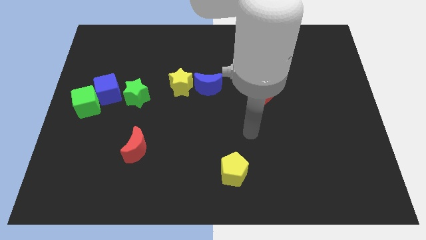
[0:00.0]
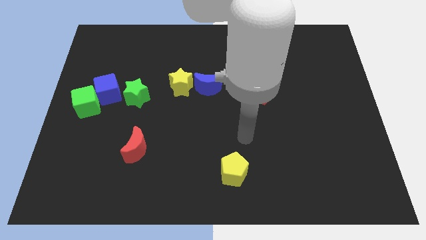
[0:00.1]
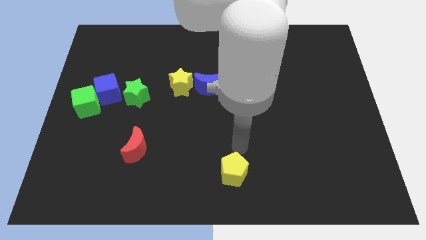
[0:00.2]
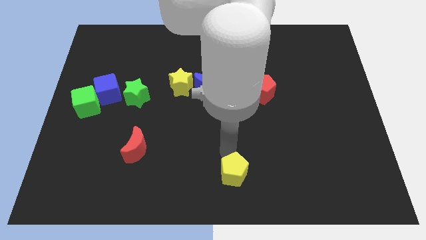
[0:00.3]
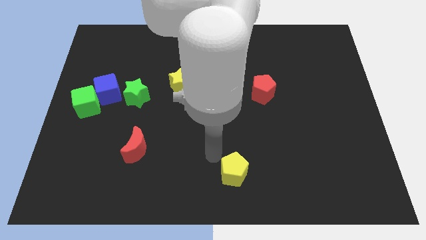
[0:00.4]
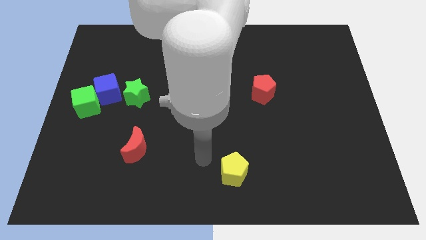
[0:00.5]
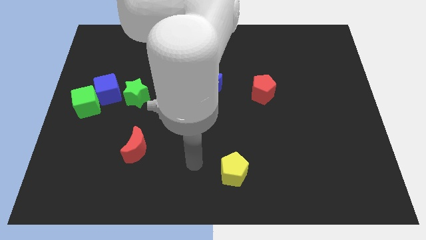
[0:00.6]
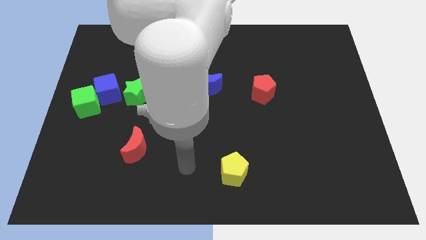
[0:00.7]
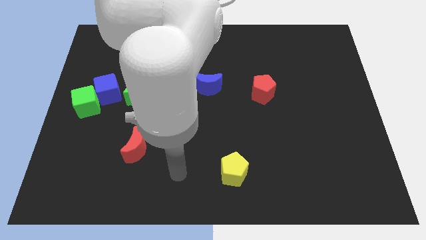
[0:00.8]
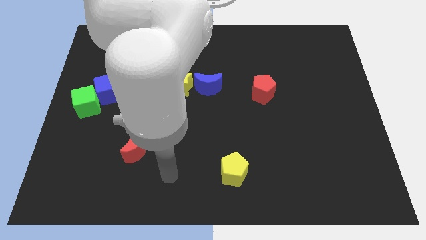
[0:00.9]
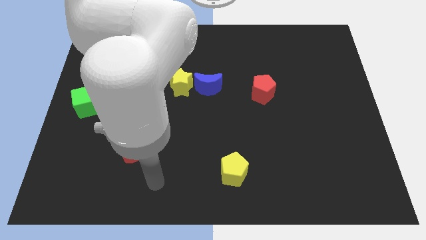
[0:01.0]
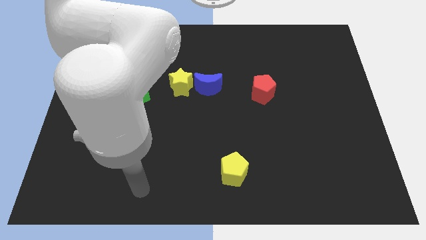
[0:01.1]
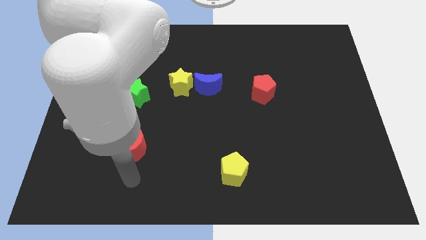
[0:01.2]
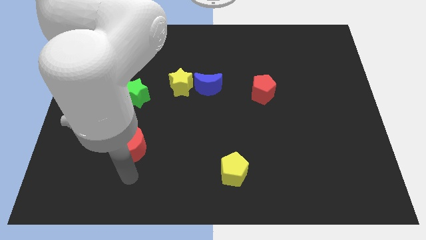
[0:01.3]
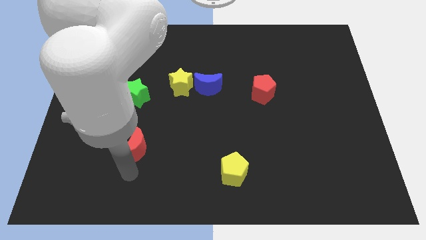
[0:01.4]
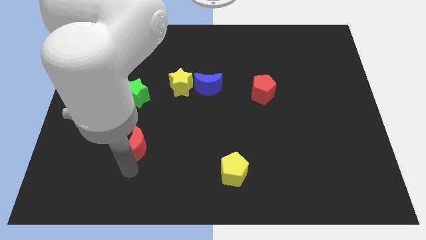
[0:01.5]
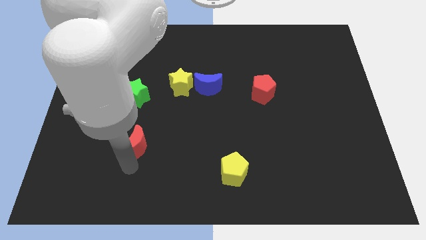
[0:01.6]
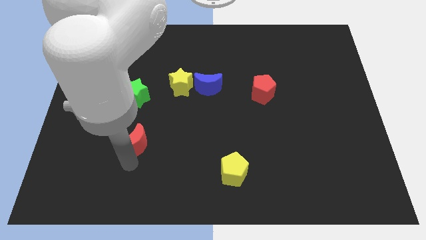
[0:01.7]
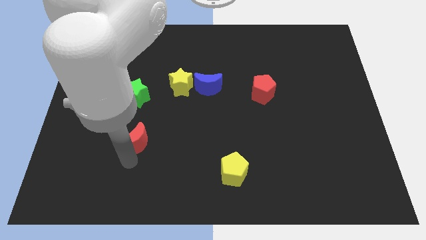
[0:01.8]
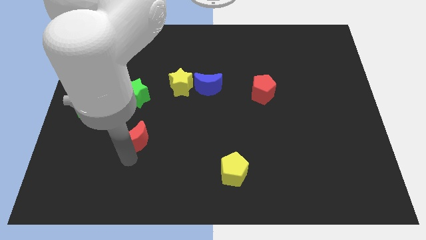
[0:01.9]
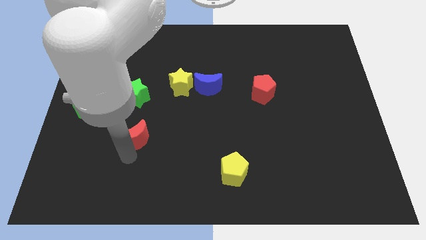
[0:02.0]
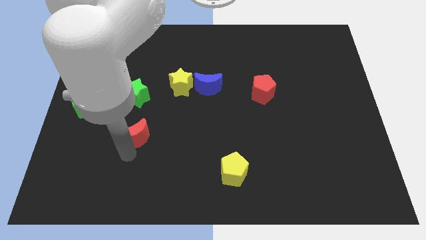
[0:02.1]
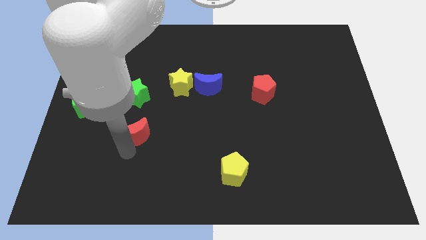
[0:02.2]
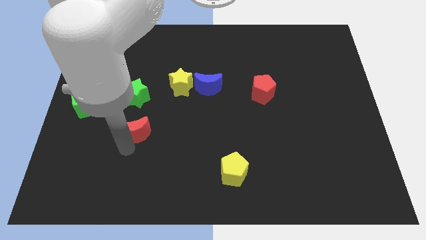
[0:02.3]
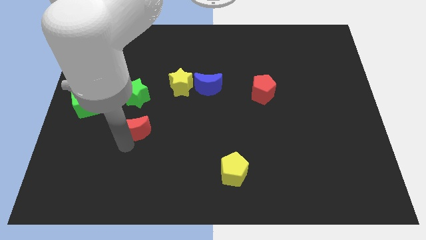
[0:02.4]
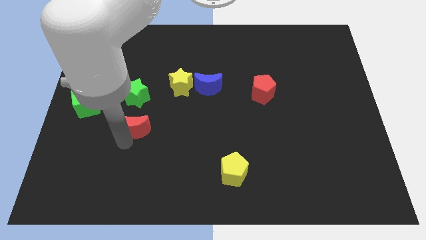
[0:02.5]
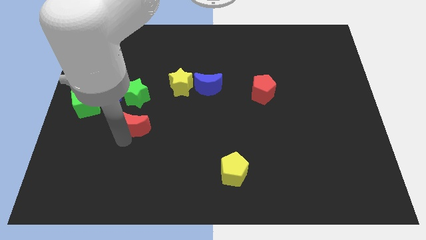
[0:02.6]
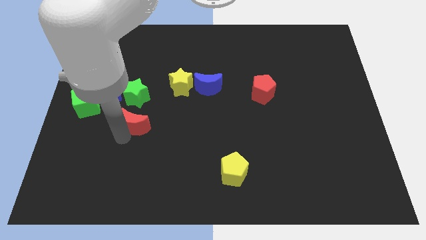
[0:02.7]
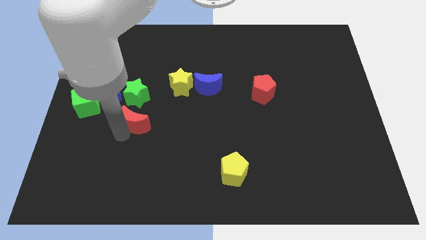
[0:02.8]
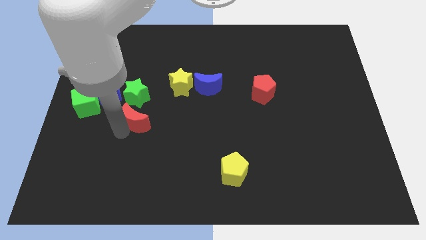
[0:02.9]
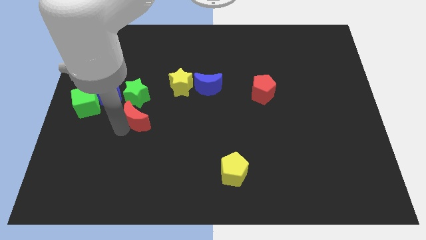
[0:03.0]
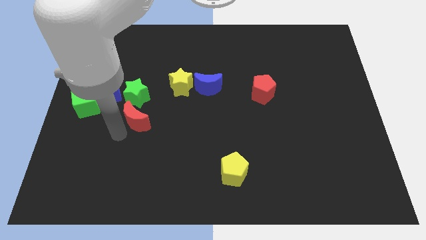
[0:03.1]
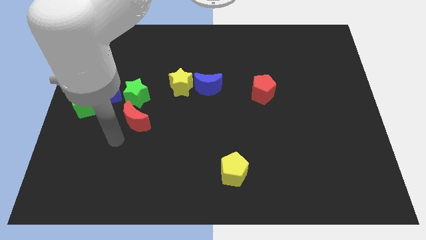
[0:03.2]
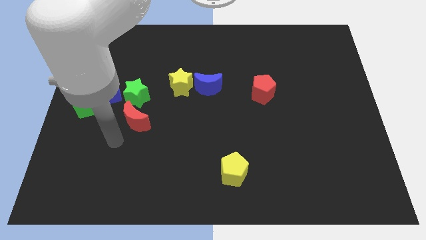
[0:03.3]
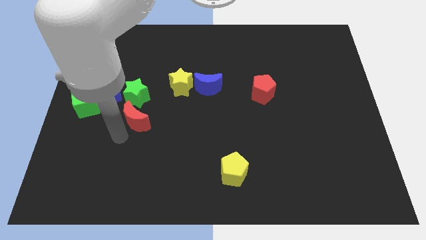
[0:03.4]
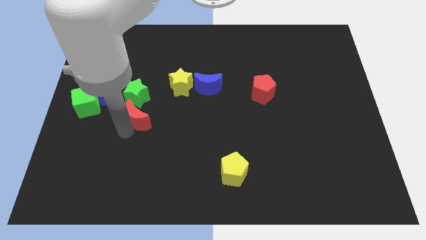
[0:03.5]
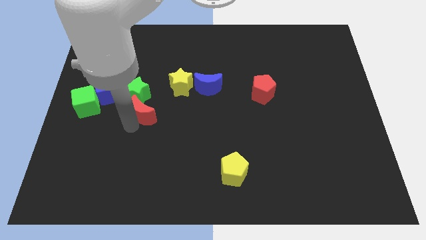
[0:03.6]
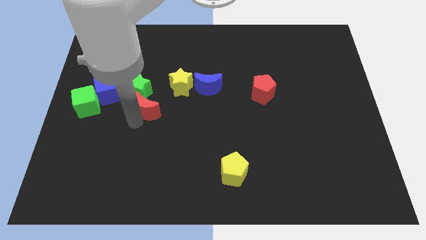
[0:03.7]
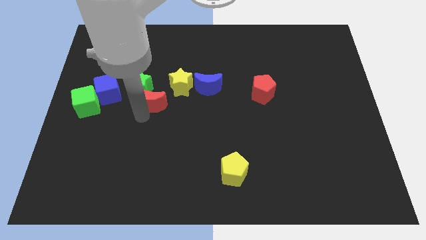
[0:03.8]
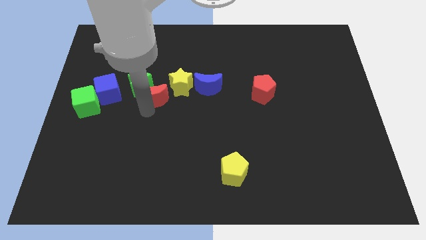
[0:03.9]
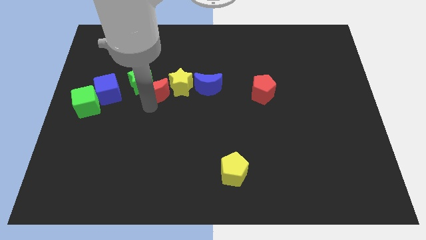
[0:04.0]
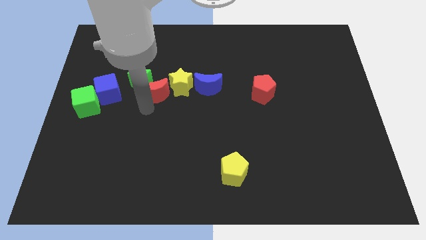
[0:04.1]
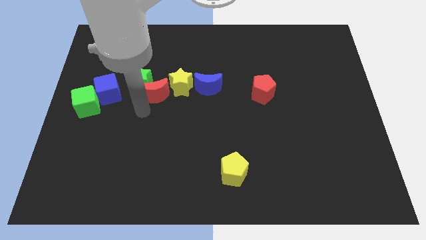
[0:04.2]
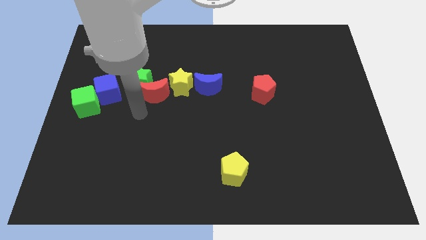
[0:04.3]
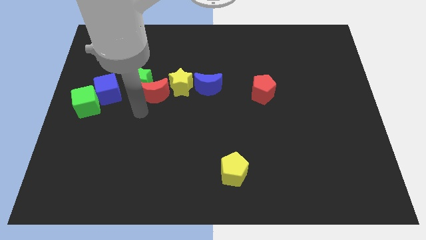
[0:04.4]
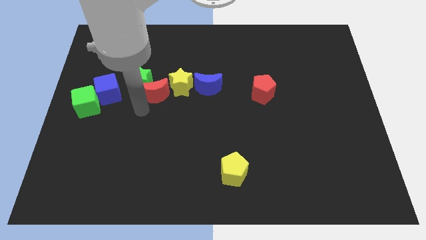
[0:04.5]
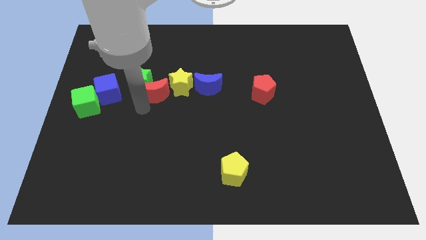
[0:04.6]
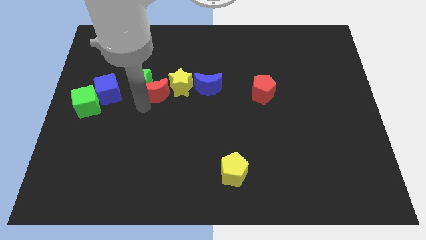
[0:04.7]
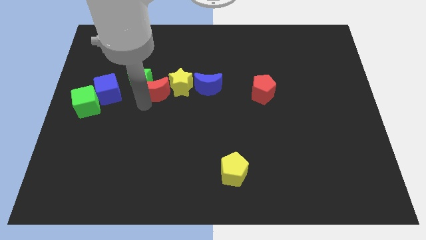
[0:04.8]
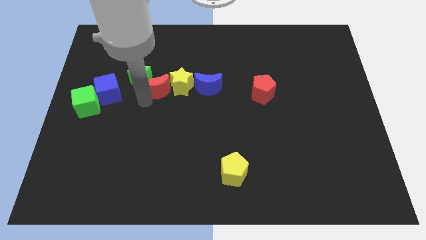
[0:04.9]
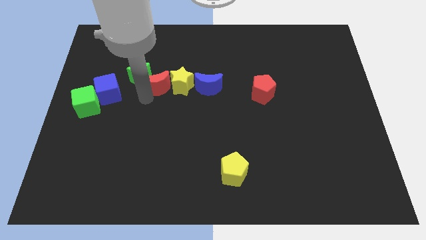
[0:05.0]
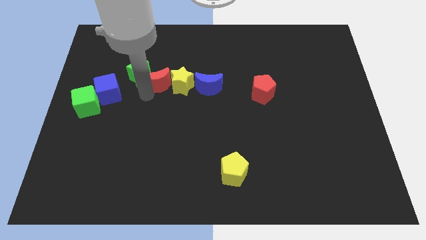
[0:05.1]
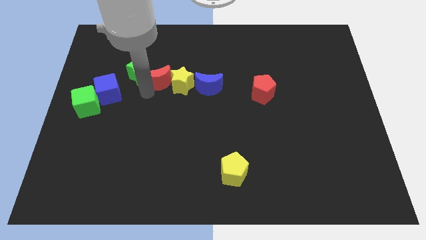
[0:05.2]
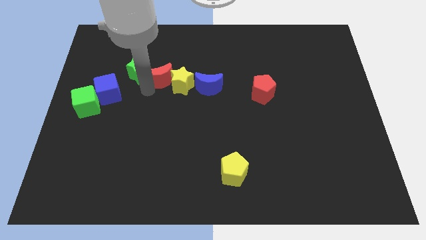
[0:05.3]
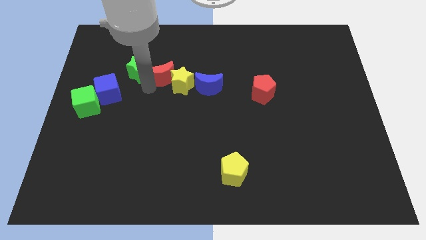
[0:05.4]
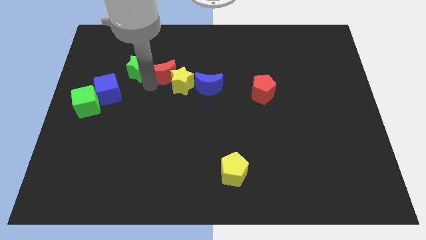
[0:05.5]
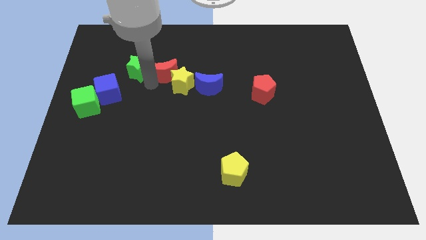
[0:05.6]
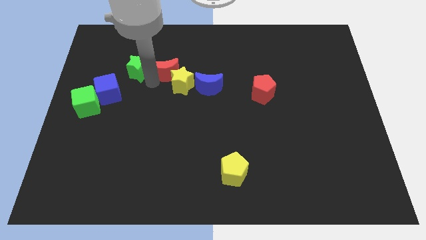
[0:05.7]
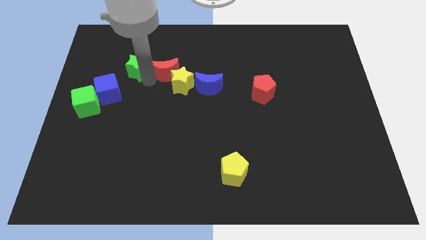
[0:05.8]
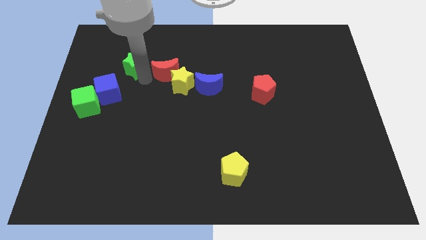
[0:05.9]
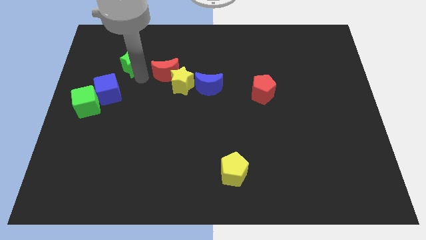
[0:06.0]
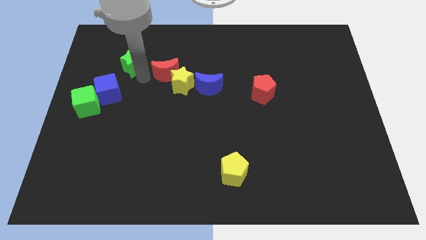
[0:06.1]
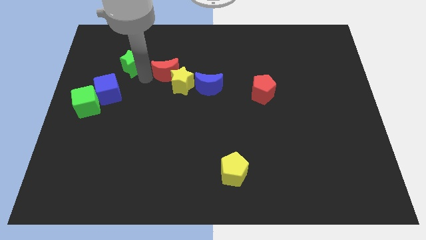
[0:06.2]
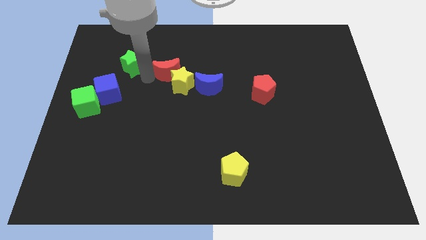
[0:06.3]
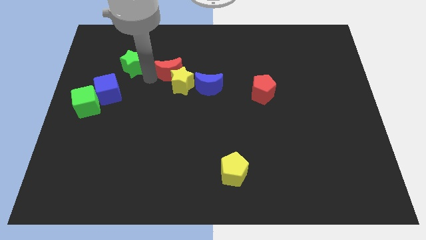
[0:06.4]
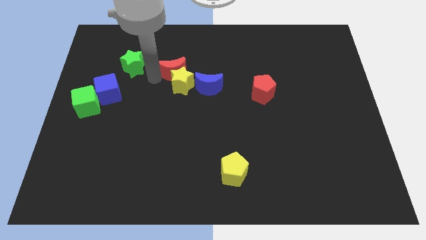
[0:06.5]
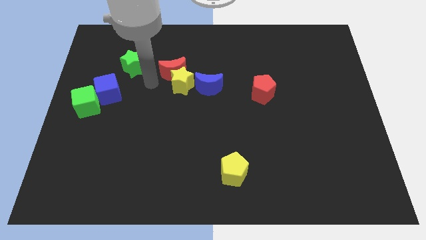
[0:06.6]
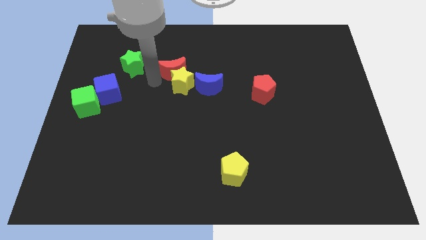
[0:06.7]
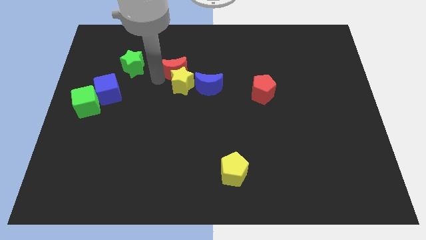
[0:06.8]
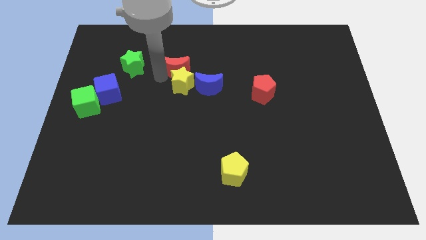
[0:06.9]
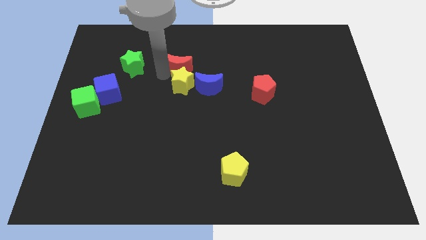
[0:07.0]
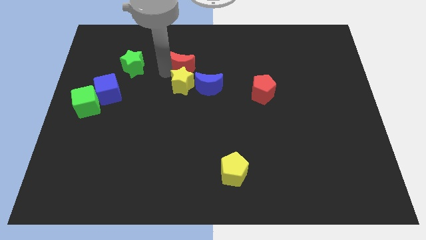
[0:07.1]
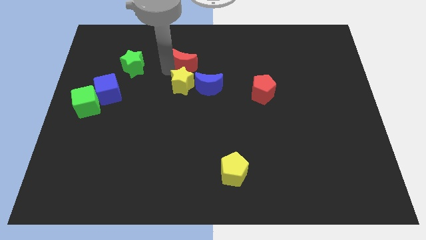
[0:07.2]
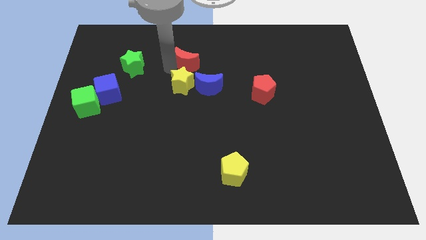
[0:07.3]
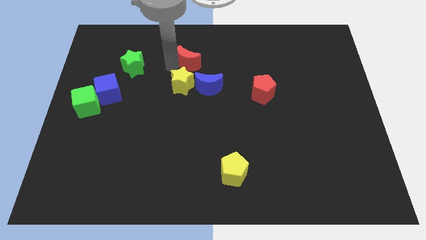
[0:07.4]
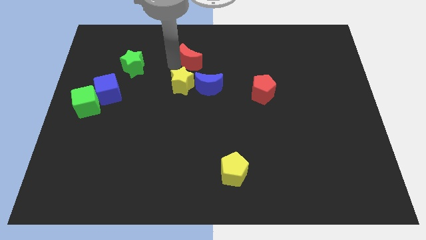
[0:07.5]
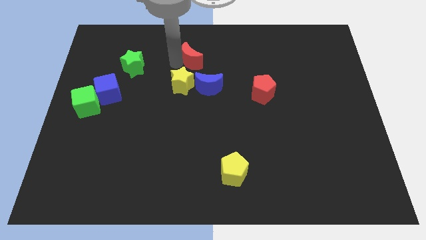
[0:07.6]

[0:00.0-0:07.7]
move the red moon to the top side of the blue moon

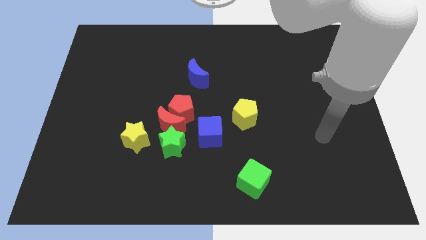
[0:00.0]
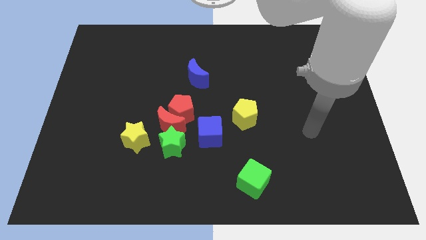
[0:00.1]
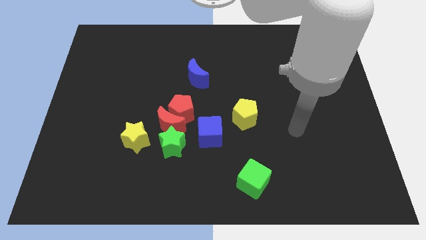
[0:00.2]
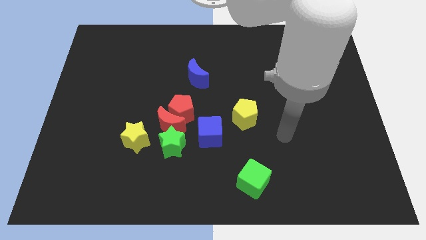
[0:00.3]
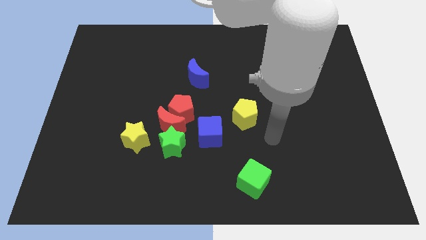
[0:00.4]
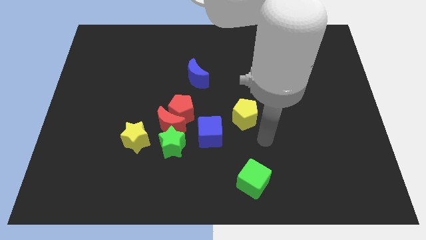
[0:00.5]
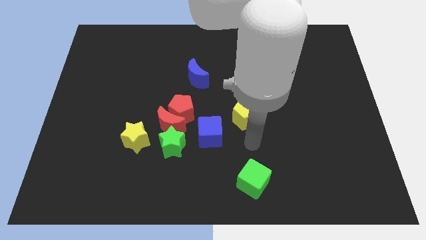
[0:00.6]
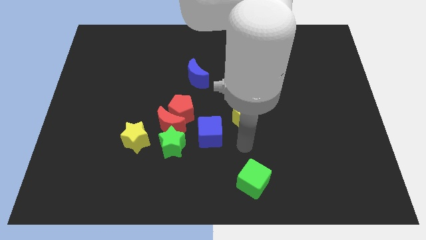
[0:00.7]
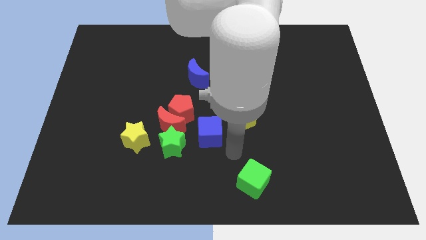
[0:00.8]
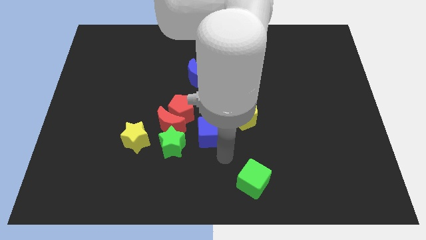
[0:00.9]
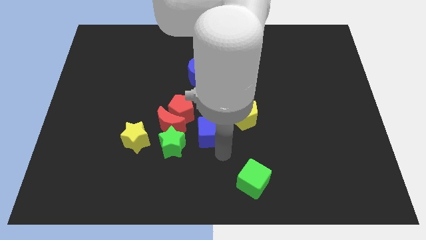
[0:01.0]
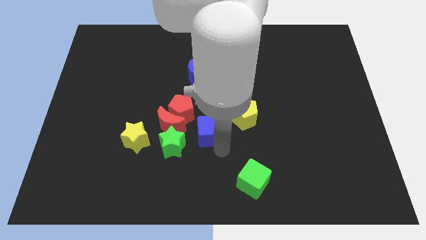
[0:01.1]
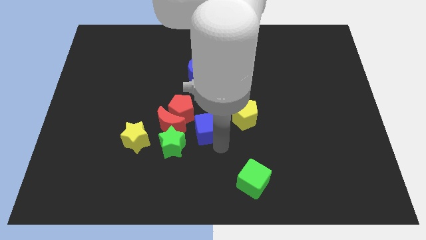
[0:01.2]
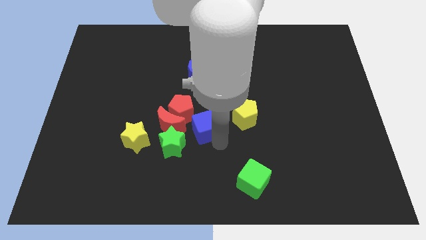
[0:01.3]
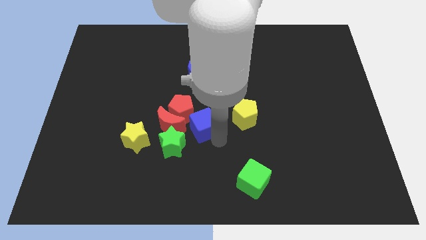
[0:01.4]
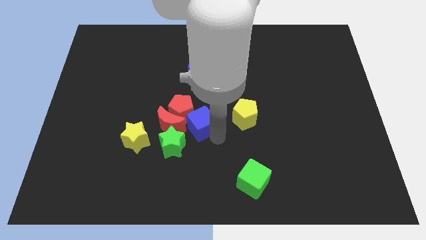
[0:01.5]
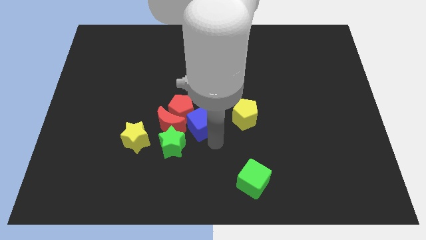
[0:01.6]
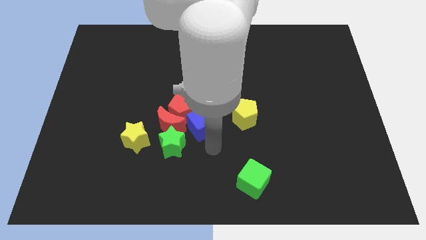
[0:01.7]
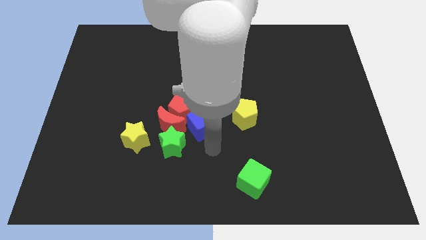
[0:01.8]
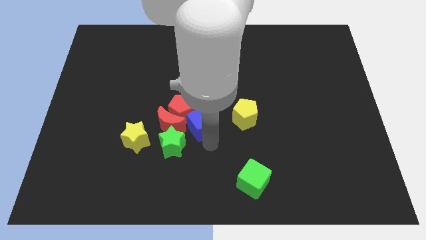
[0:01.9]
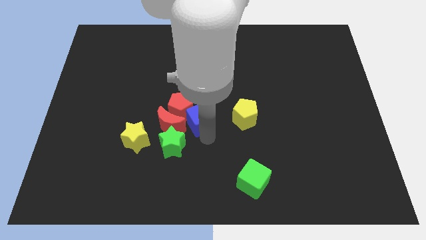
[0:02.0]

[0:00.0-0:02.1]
slide the blue cube to the top right of the red moon
